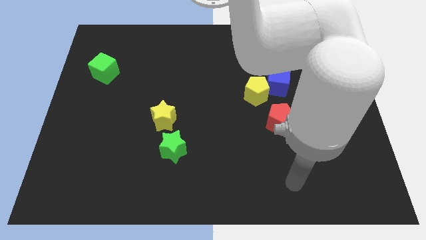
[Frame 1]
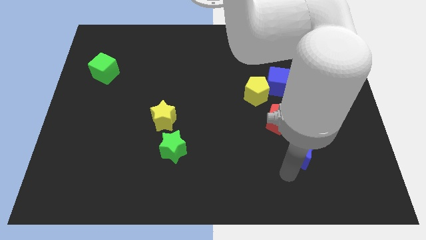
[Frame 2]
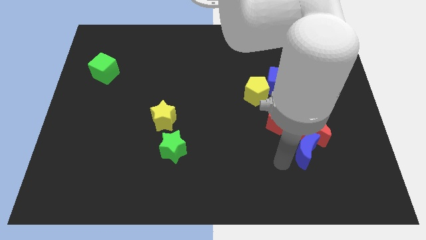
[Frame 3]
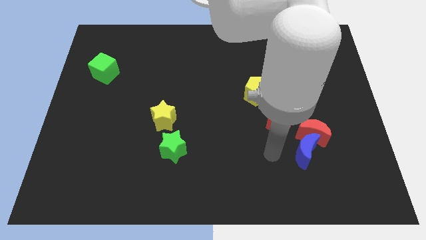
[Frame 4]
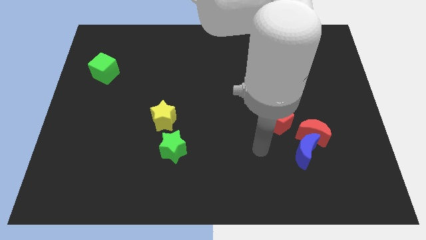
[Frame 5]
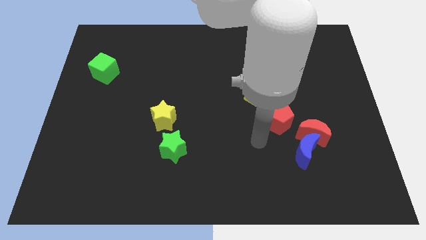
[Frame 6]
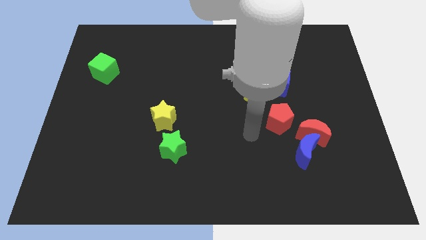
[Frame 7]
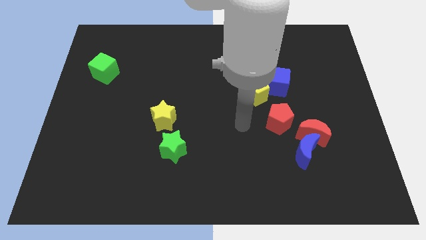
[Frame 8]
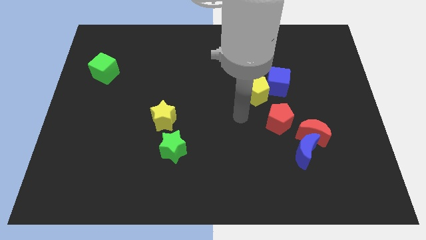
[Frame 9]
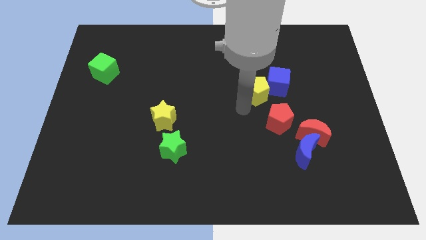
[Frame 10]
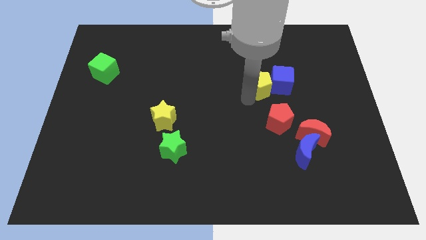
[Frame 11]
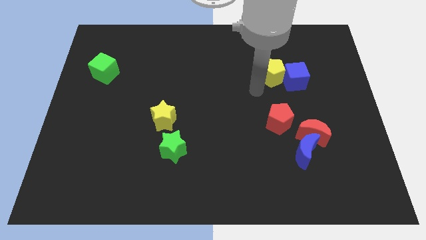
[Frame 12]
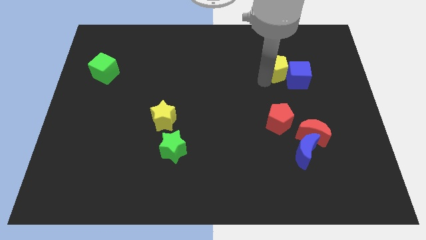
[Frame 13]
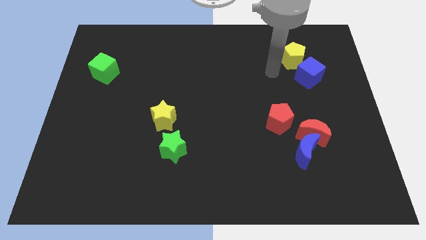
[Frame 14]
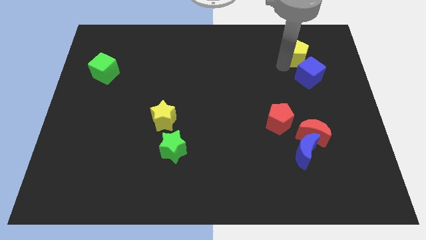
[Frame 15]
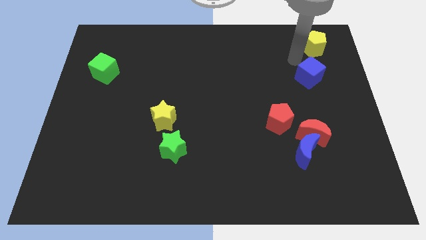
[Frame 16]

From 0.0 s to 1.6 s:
pull the blue cube apart from the yellow pentagon

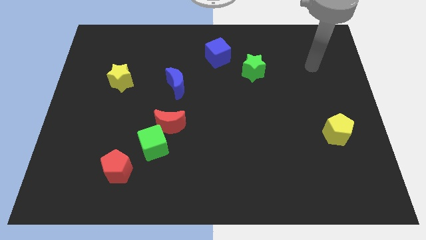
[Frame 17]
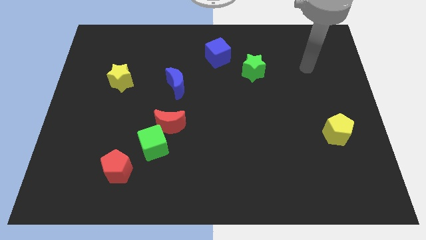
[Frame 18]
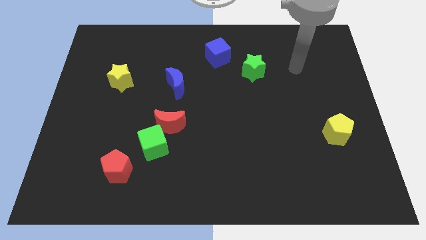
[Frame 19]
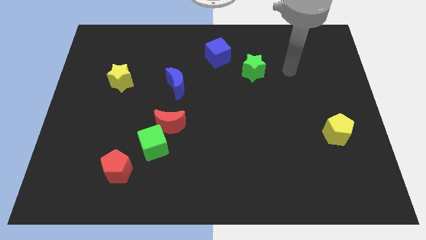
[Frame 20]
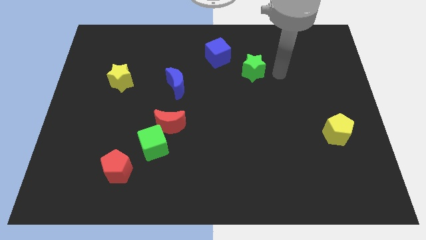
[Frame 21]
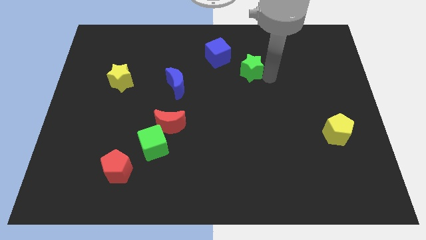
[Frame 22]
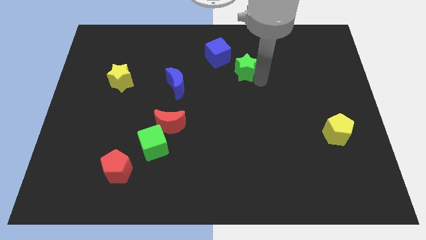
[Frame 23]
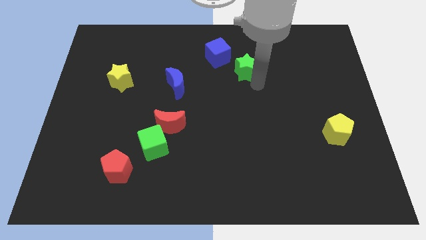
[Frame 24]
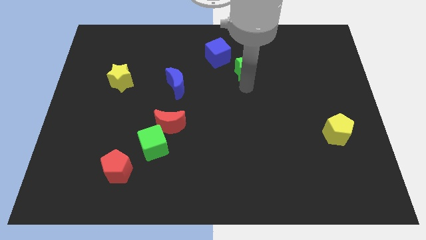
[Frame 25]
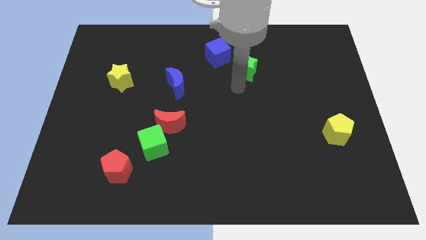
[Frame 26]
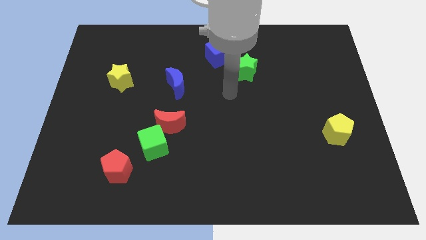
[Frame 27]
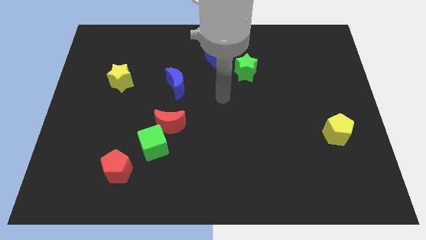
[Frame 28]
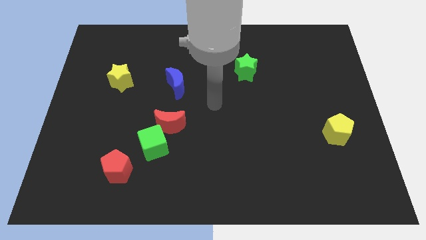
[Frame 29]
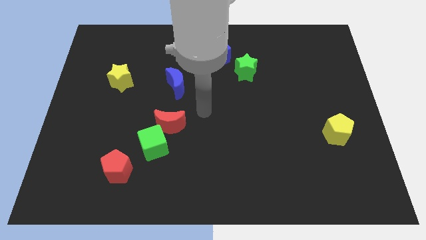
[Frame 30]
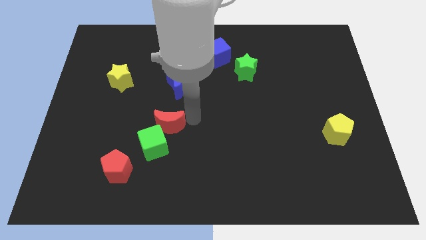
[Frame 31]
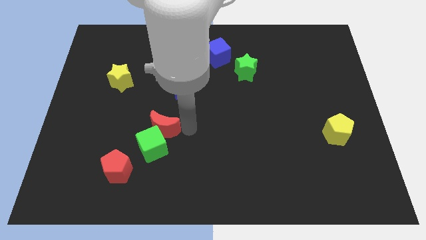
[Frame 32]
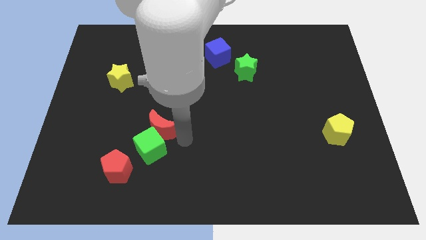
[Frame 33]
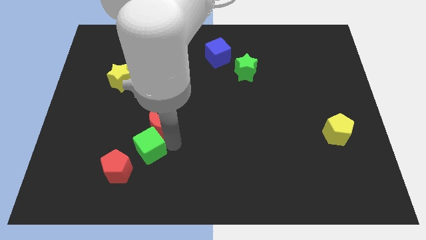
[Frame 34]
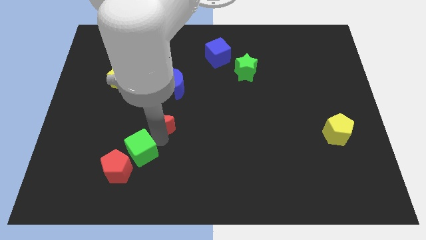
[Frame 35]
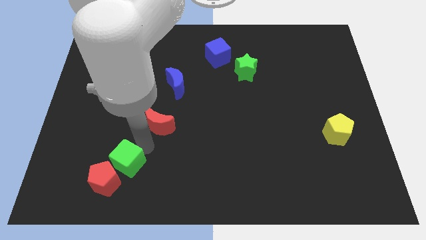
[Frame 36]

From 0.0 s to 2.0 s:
separate the red moon from the green cube

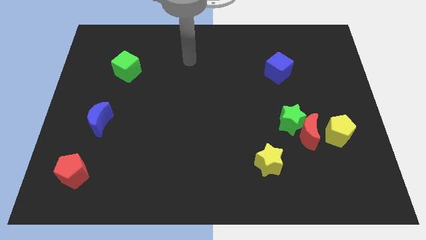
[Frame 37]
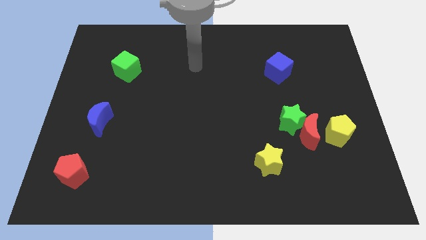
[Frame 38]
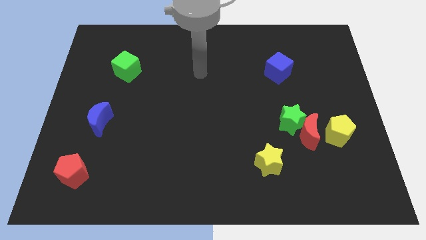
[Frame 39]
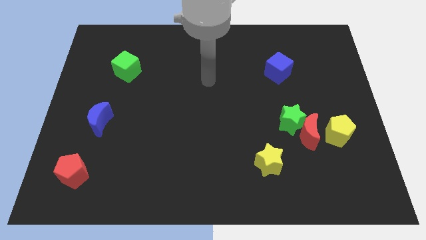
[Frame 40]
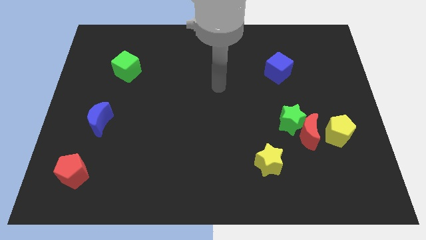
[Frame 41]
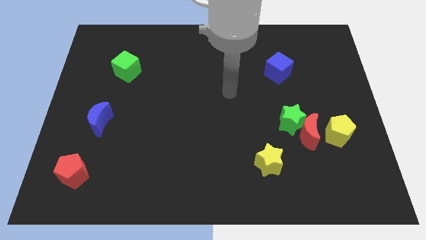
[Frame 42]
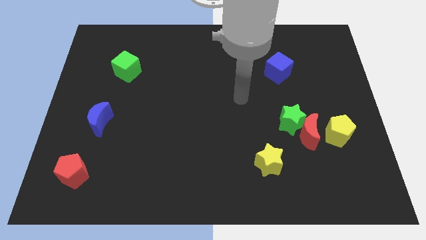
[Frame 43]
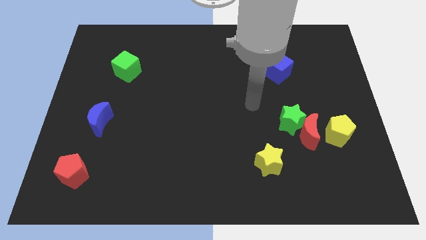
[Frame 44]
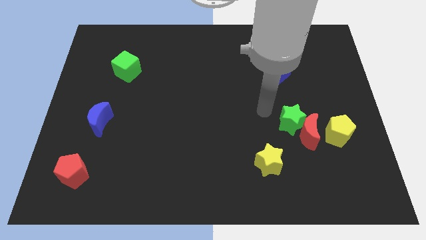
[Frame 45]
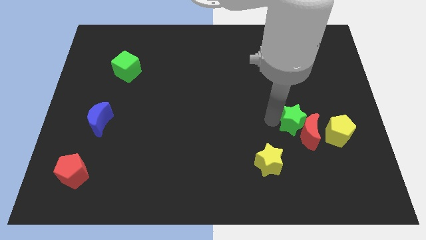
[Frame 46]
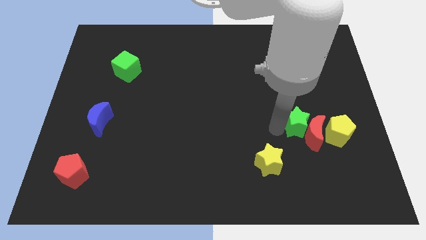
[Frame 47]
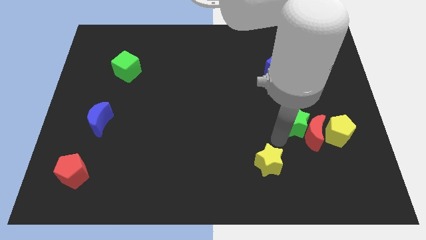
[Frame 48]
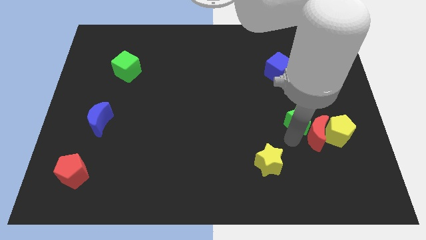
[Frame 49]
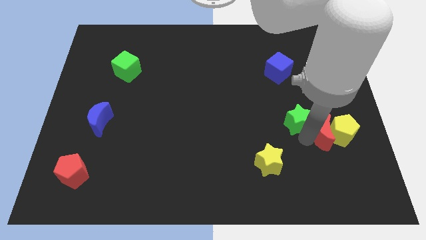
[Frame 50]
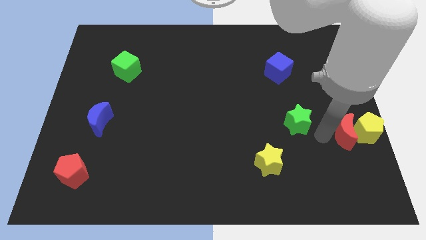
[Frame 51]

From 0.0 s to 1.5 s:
move the green star away from the red moon

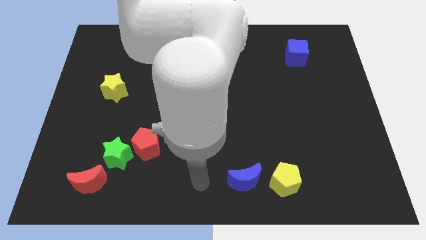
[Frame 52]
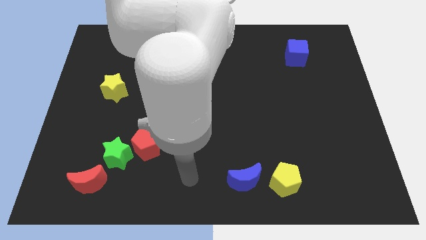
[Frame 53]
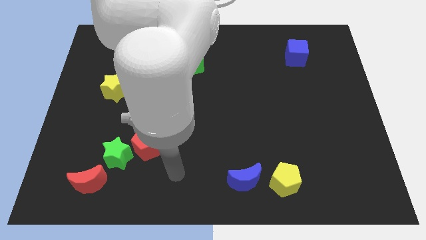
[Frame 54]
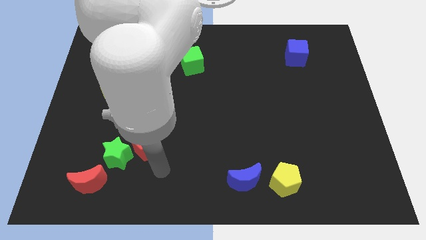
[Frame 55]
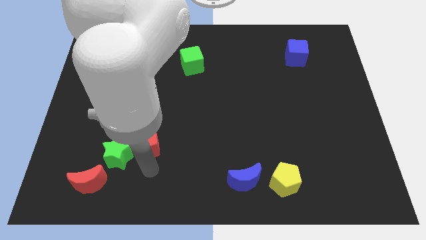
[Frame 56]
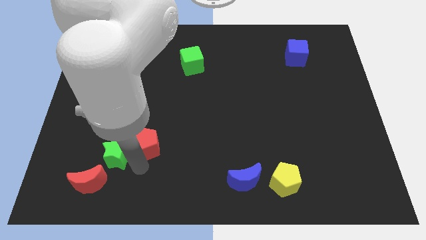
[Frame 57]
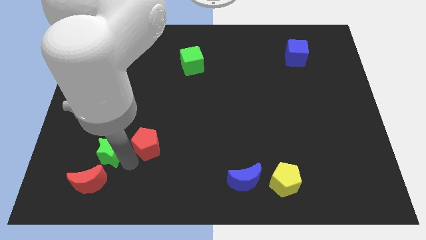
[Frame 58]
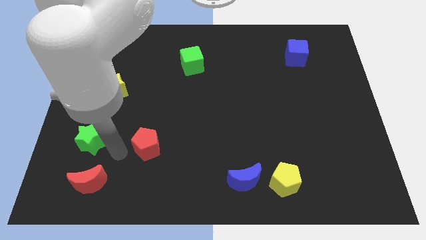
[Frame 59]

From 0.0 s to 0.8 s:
move the red pentagon away from the green star

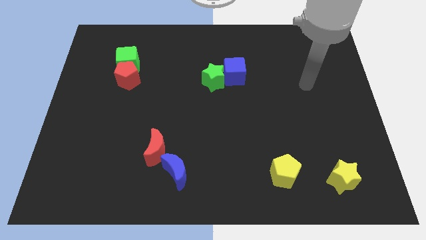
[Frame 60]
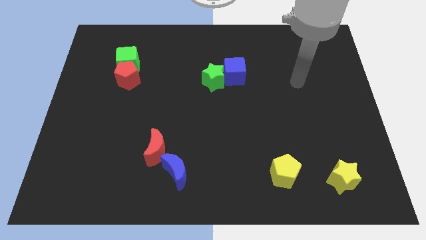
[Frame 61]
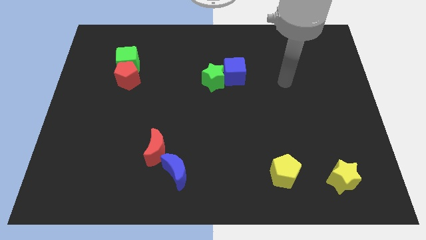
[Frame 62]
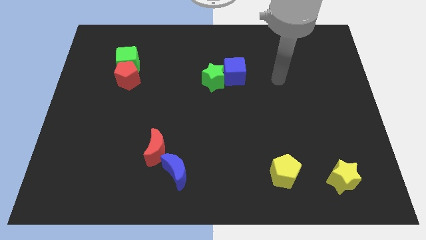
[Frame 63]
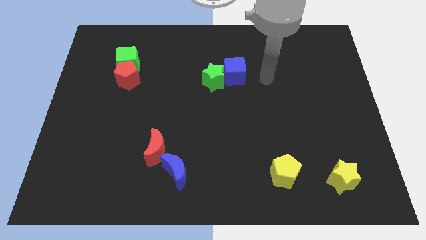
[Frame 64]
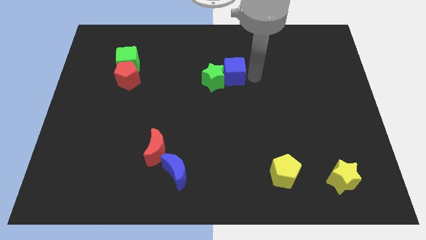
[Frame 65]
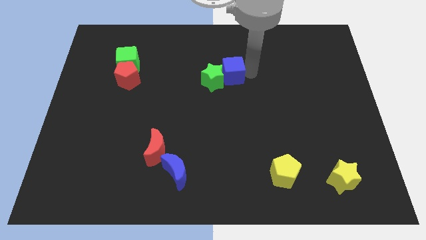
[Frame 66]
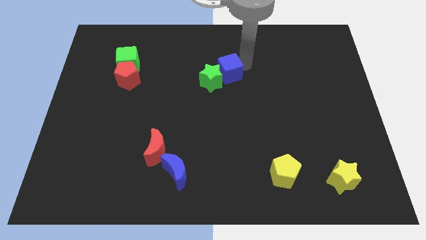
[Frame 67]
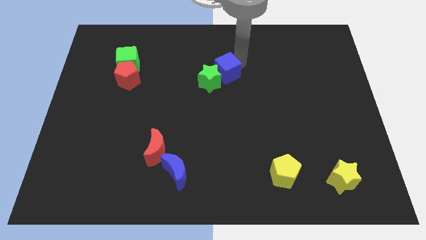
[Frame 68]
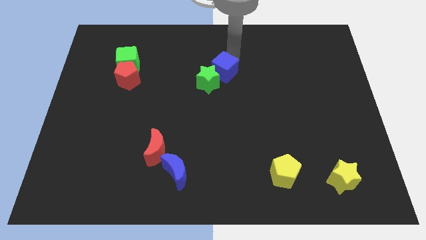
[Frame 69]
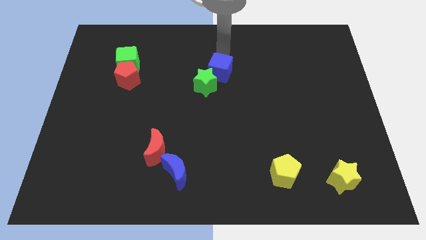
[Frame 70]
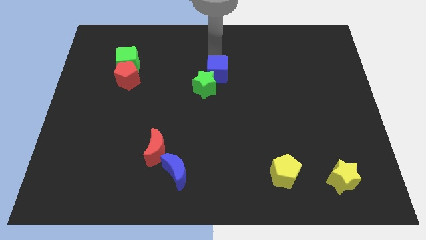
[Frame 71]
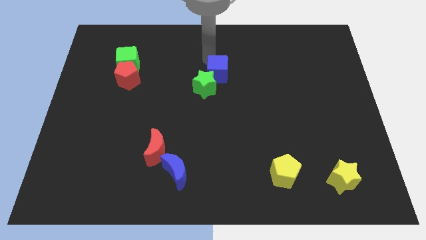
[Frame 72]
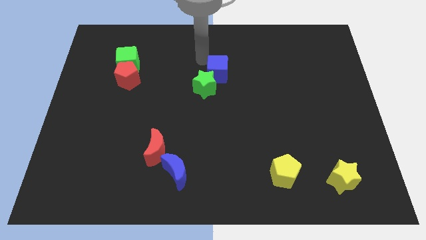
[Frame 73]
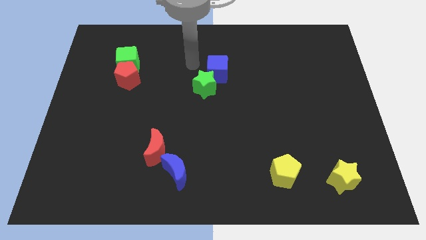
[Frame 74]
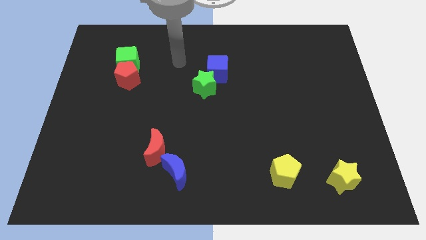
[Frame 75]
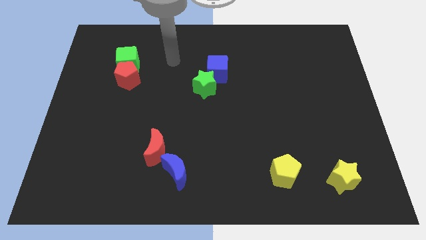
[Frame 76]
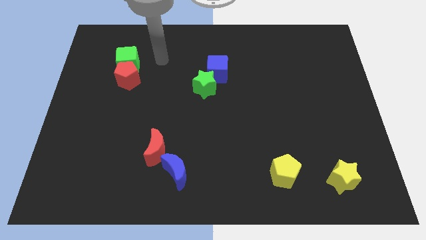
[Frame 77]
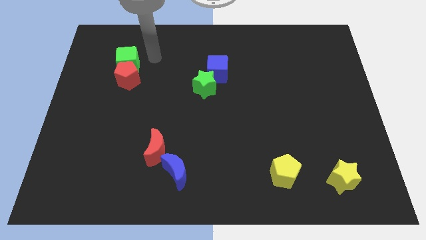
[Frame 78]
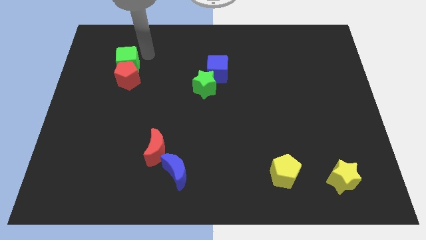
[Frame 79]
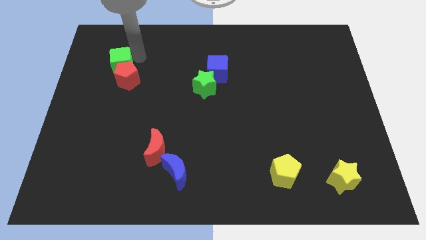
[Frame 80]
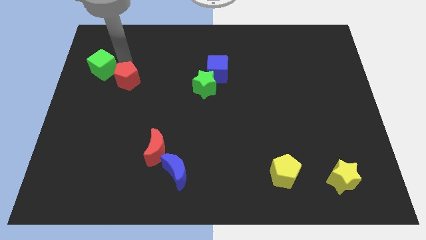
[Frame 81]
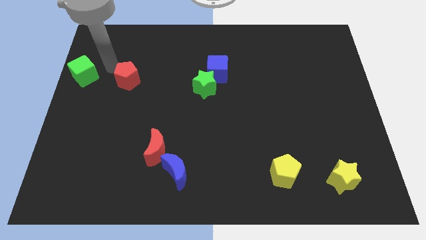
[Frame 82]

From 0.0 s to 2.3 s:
separate the red pentagon from the green cube

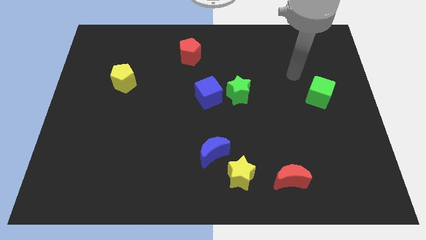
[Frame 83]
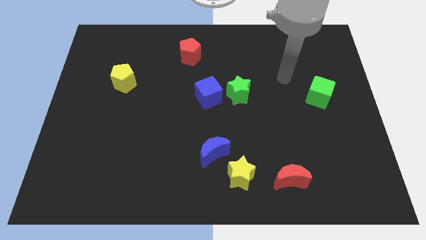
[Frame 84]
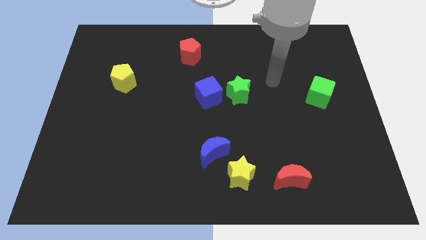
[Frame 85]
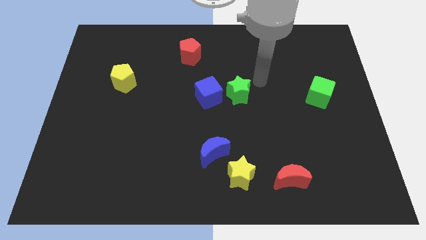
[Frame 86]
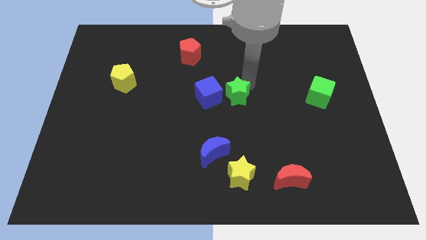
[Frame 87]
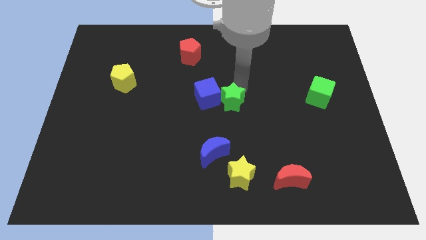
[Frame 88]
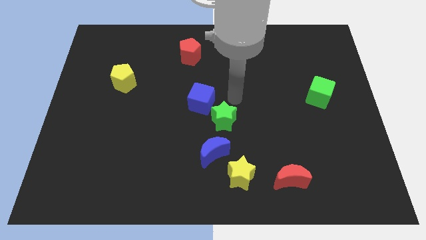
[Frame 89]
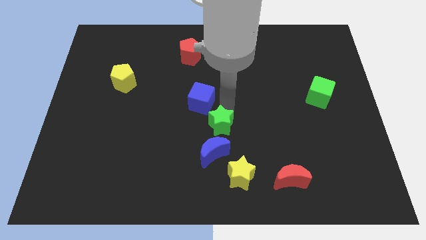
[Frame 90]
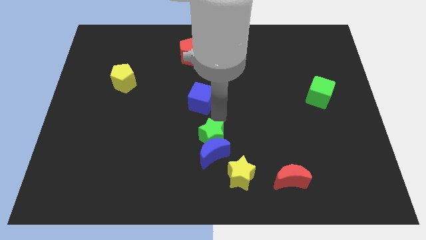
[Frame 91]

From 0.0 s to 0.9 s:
move the blue cube away from the green star
